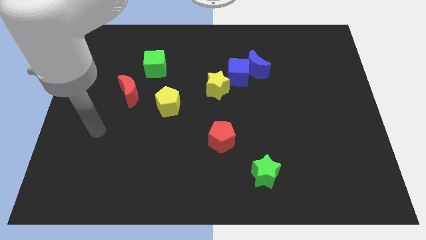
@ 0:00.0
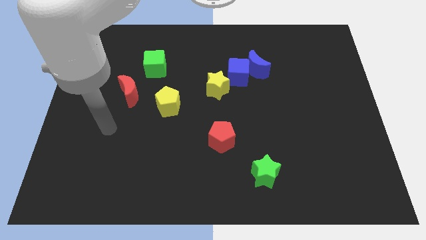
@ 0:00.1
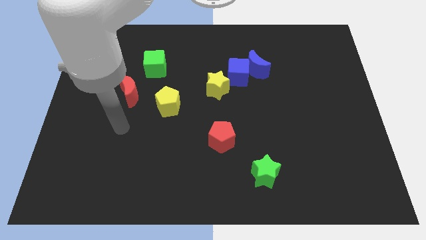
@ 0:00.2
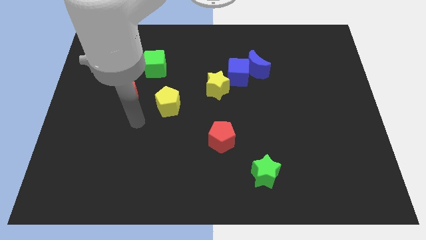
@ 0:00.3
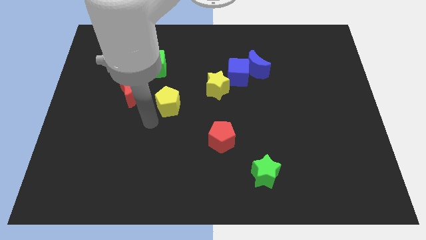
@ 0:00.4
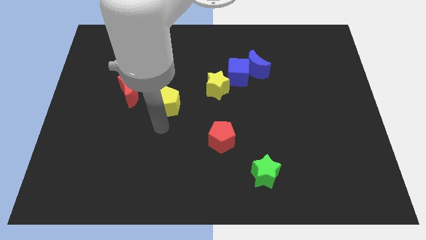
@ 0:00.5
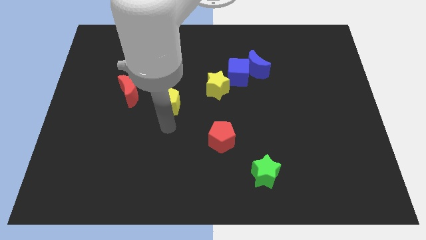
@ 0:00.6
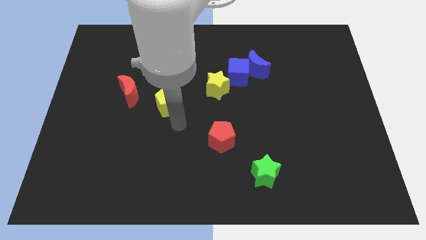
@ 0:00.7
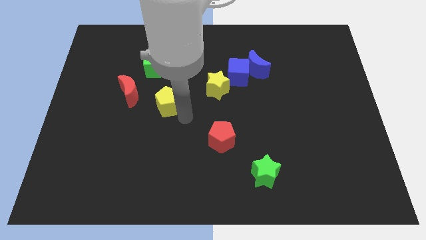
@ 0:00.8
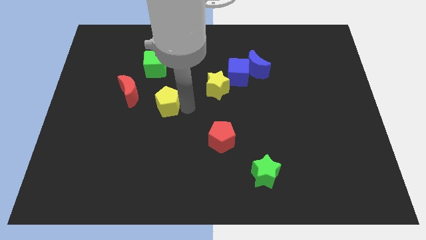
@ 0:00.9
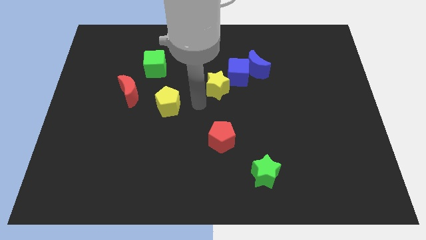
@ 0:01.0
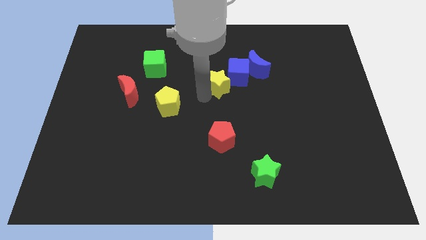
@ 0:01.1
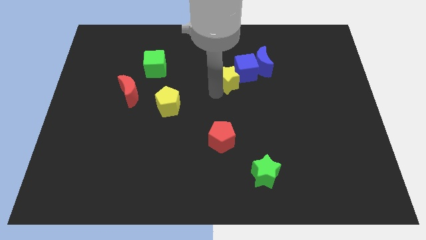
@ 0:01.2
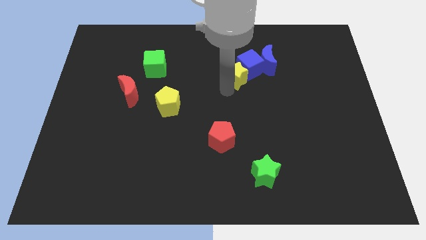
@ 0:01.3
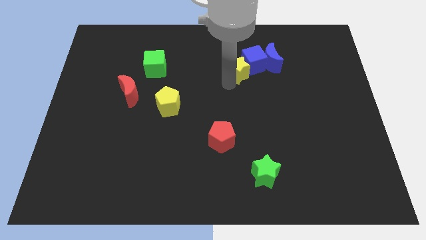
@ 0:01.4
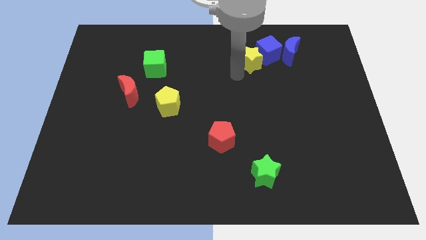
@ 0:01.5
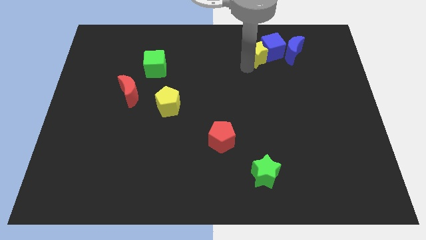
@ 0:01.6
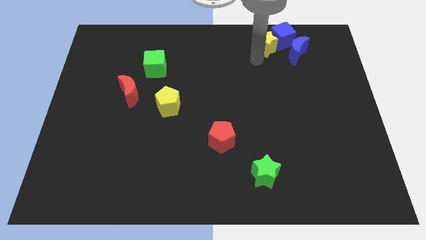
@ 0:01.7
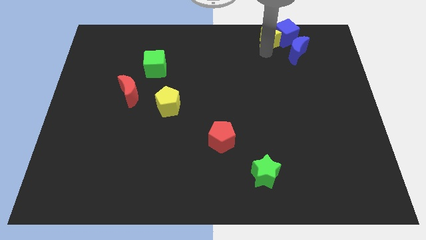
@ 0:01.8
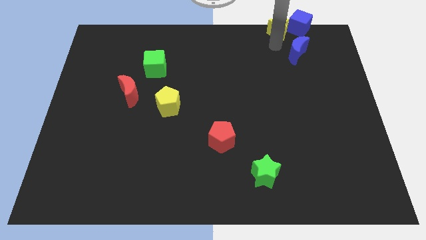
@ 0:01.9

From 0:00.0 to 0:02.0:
pull the blue moon apart from the blue cube

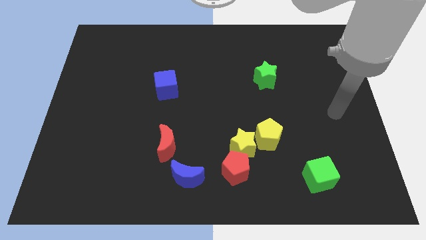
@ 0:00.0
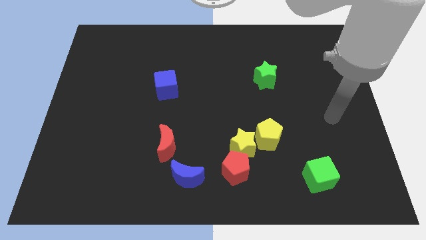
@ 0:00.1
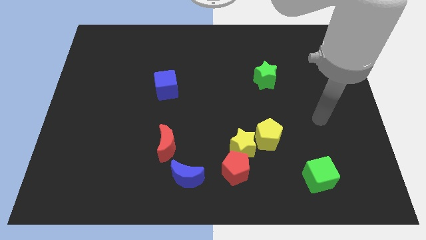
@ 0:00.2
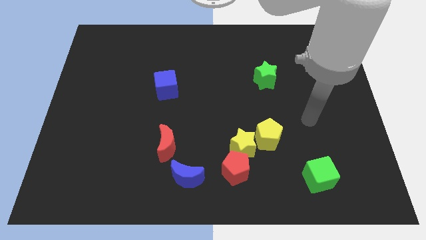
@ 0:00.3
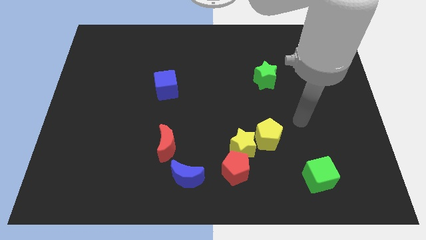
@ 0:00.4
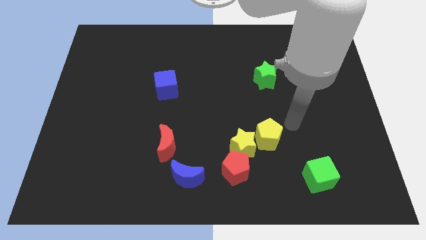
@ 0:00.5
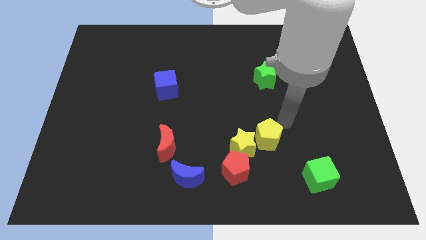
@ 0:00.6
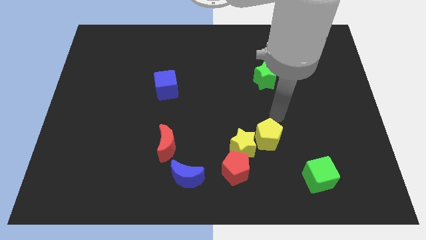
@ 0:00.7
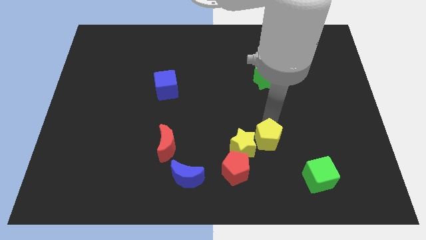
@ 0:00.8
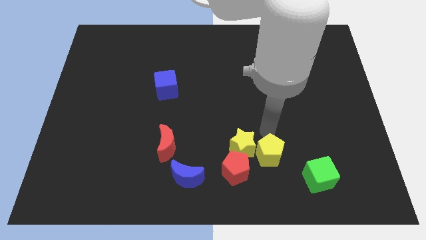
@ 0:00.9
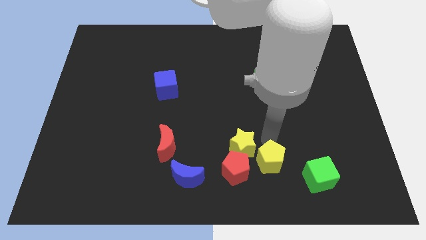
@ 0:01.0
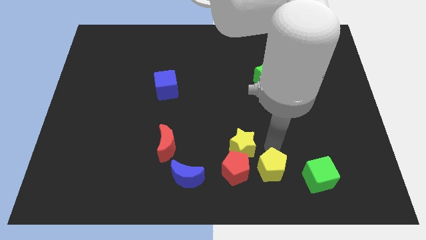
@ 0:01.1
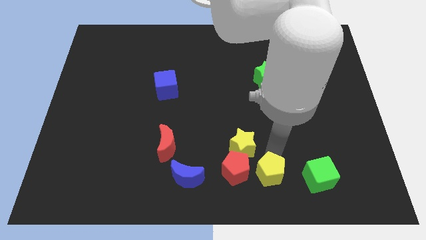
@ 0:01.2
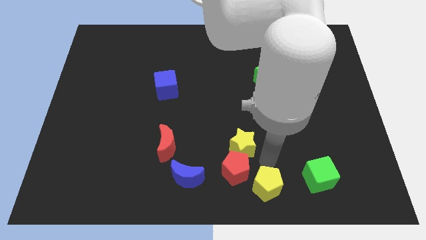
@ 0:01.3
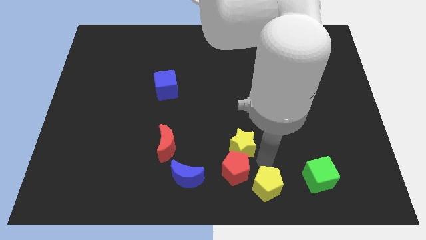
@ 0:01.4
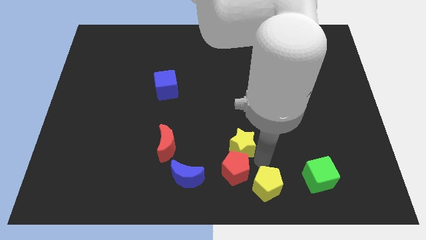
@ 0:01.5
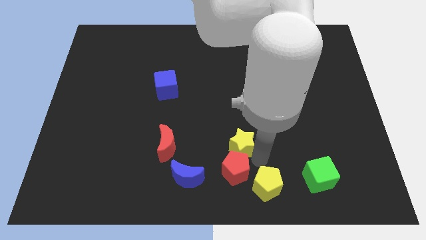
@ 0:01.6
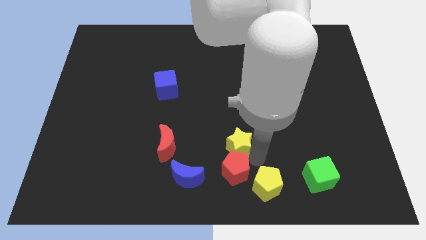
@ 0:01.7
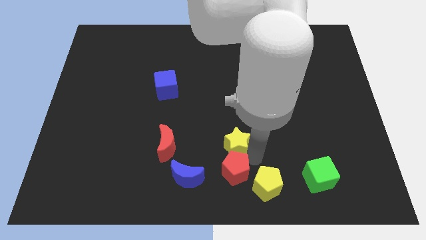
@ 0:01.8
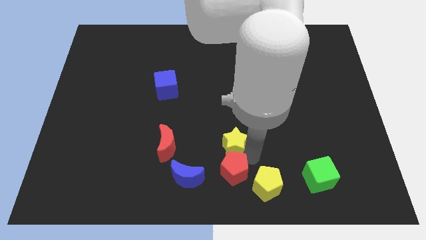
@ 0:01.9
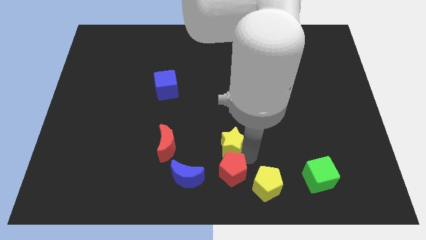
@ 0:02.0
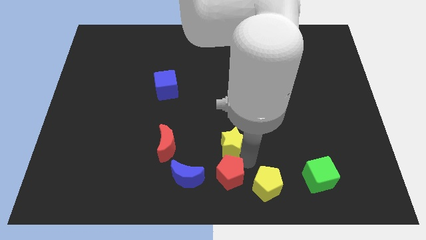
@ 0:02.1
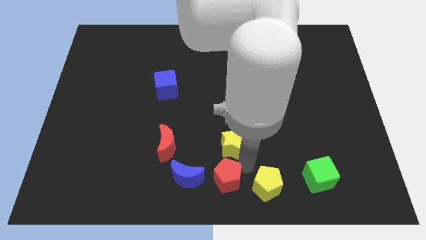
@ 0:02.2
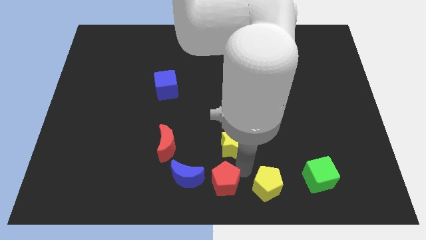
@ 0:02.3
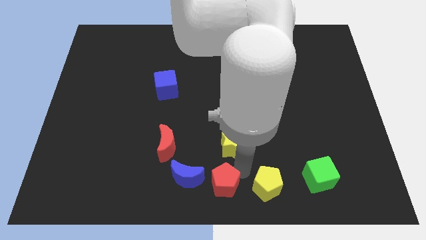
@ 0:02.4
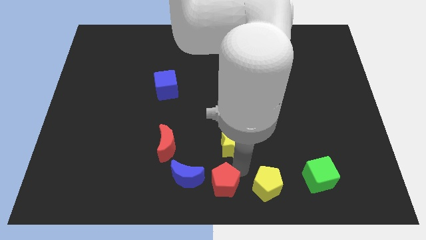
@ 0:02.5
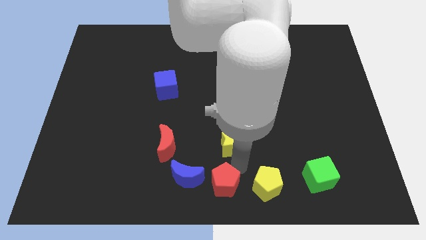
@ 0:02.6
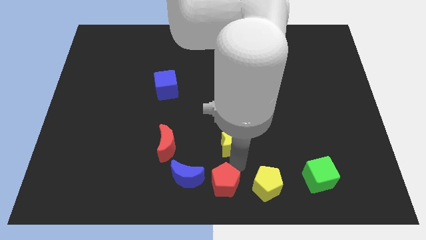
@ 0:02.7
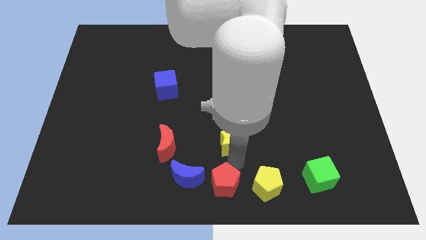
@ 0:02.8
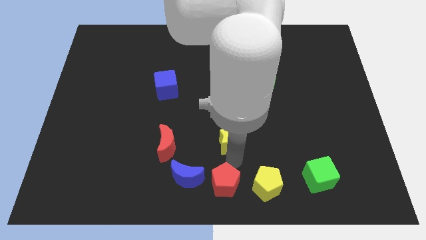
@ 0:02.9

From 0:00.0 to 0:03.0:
pull the yellow star apart from the red pentagon and yellow pentagon

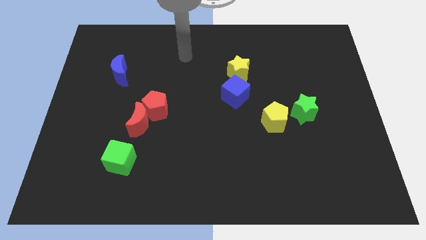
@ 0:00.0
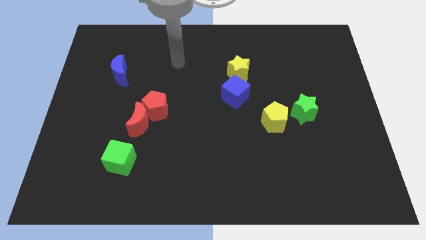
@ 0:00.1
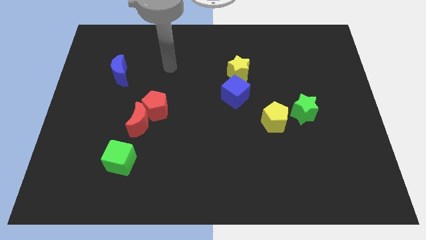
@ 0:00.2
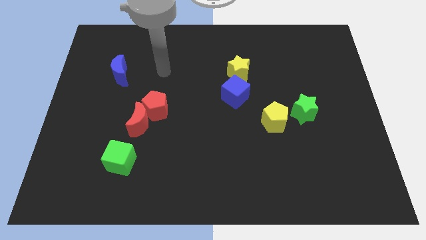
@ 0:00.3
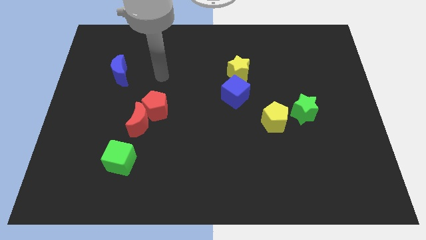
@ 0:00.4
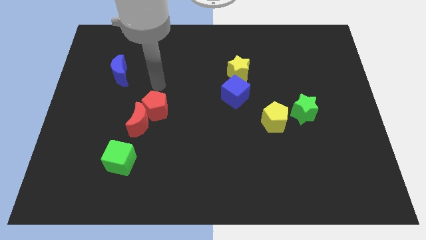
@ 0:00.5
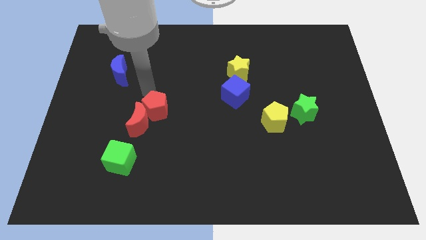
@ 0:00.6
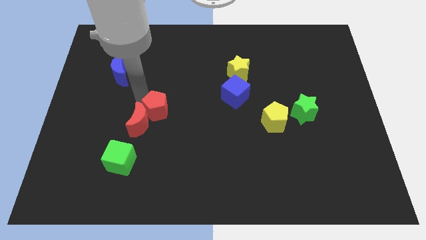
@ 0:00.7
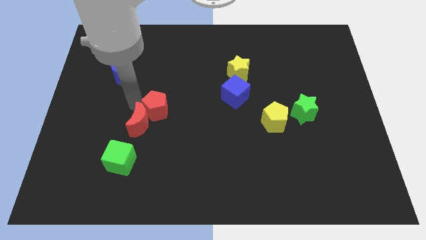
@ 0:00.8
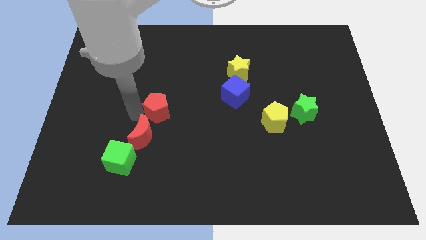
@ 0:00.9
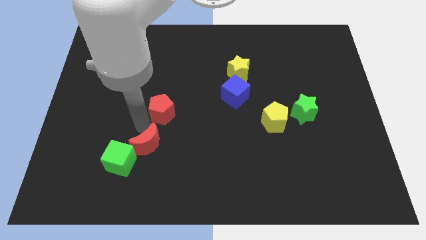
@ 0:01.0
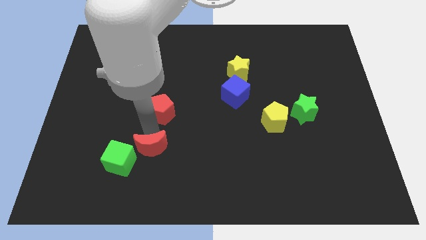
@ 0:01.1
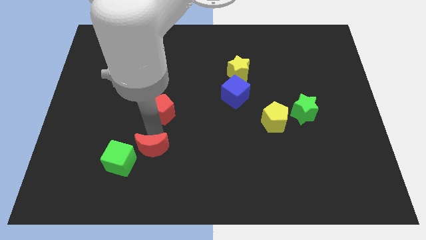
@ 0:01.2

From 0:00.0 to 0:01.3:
separate the red pentagon from the red moon

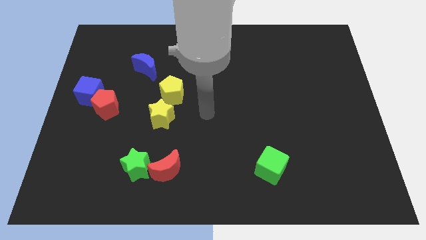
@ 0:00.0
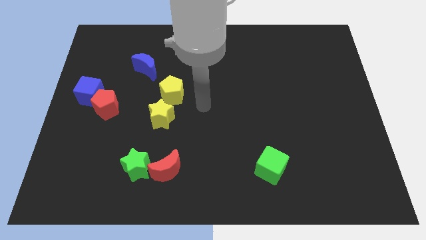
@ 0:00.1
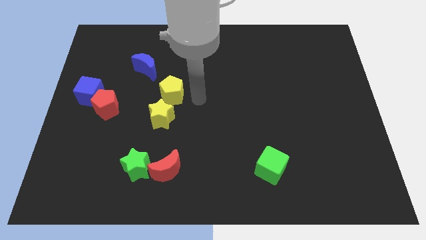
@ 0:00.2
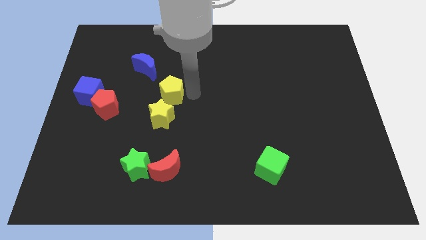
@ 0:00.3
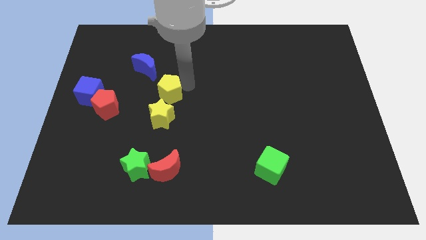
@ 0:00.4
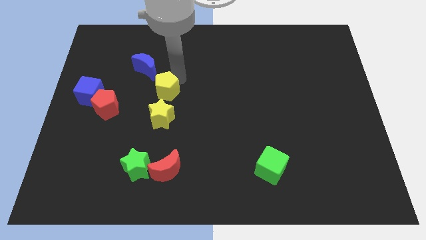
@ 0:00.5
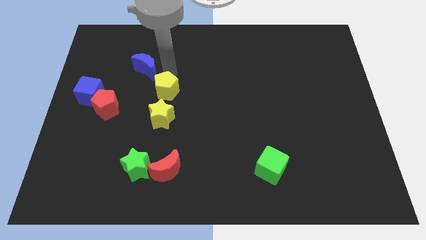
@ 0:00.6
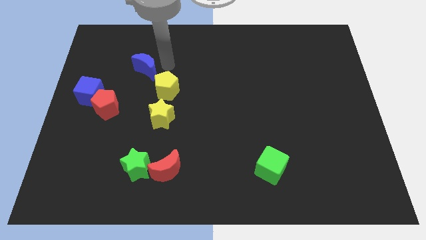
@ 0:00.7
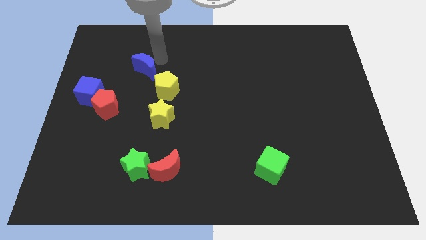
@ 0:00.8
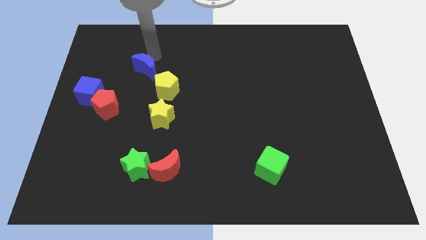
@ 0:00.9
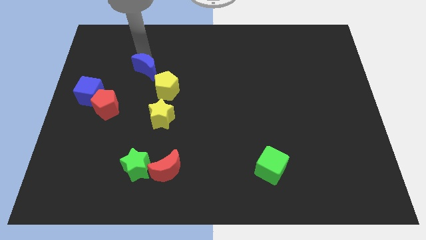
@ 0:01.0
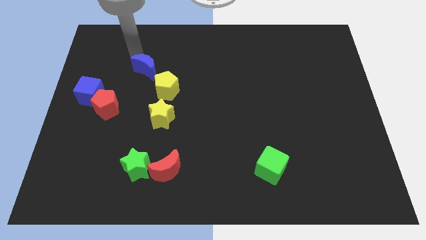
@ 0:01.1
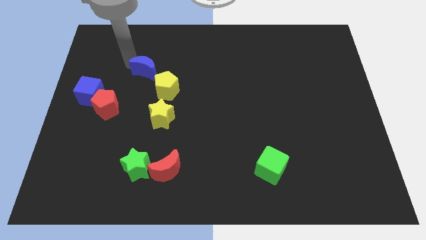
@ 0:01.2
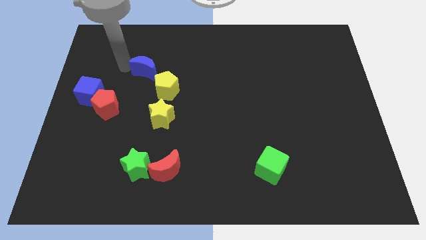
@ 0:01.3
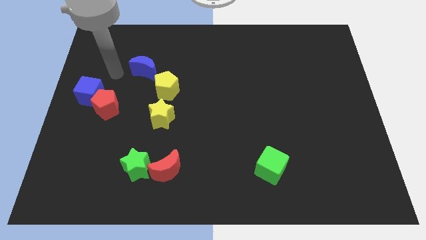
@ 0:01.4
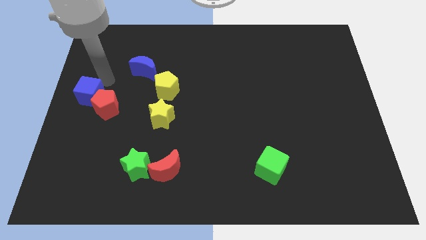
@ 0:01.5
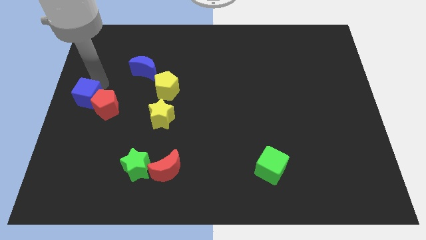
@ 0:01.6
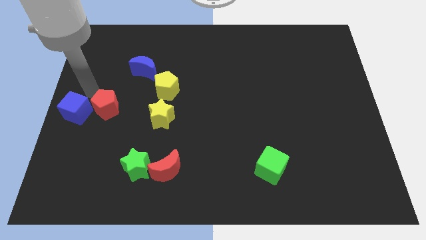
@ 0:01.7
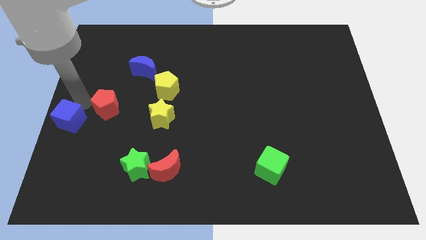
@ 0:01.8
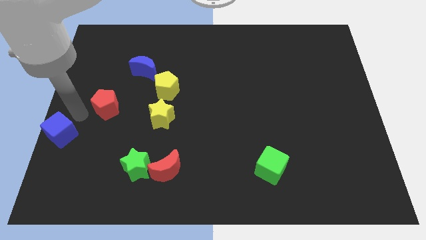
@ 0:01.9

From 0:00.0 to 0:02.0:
move the red pentagon away from the blue cube

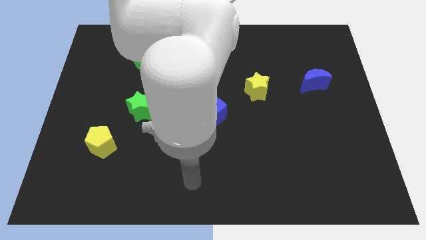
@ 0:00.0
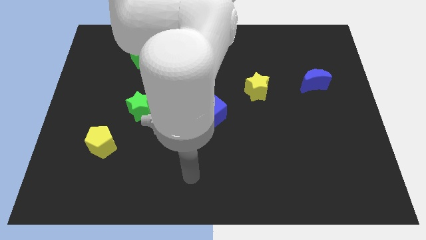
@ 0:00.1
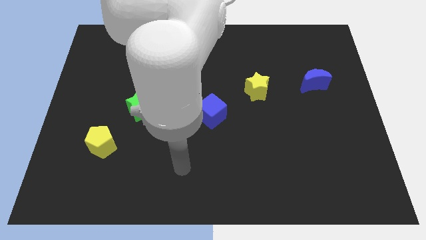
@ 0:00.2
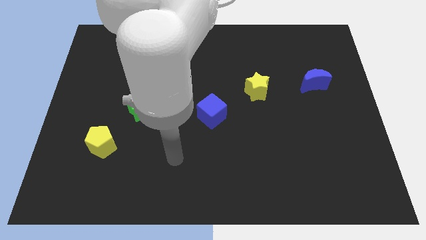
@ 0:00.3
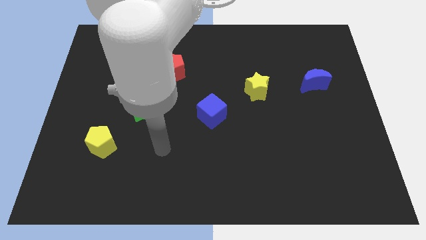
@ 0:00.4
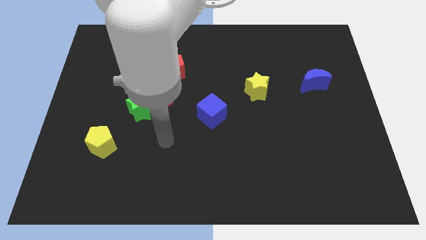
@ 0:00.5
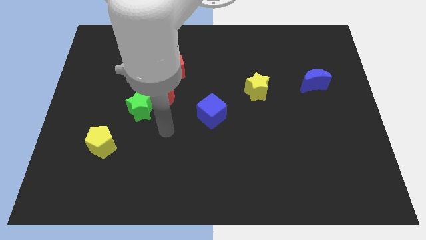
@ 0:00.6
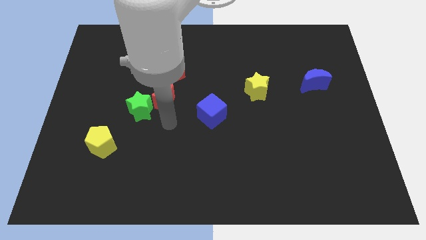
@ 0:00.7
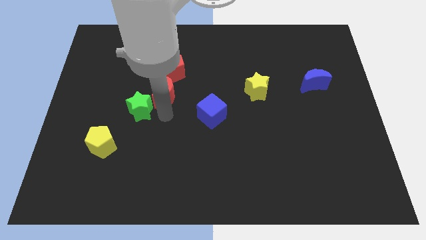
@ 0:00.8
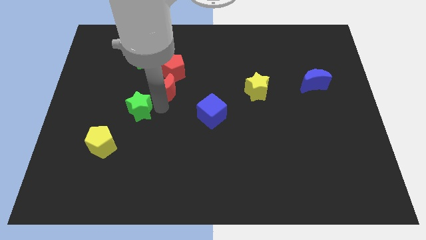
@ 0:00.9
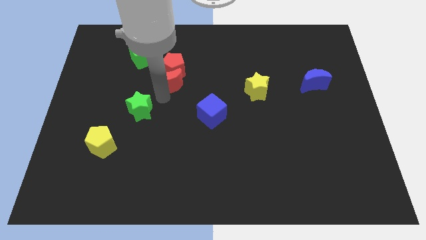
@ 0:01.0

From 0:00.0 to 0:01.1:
separate the green star from the red moon

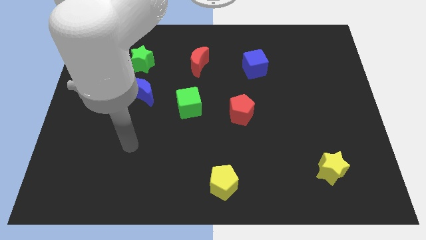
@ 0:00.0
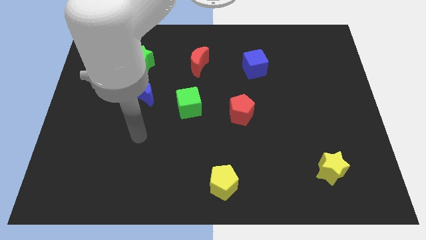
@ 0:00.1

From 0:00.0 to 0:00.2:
pull the blue moon apart from the green star
